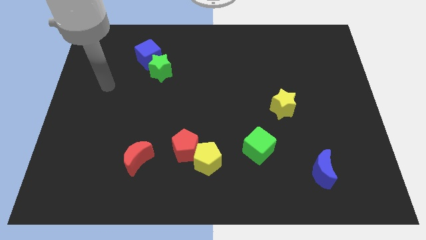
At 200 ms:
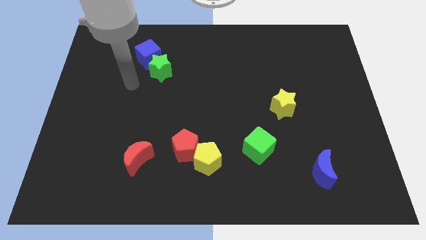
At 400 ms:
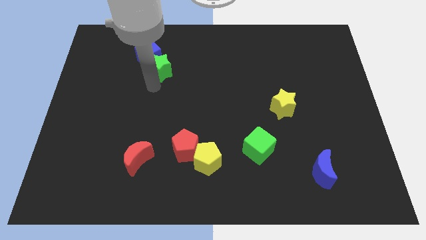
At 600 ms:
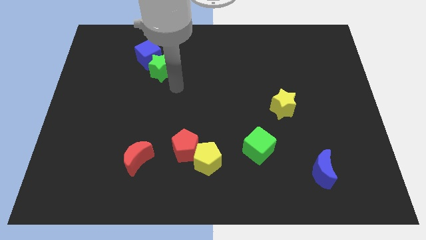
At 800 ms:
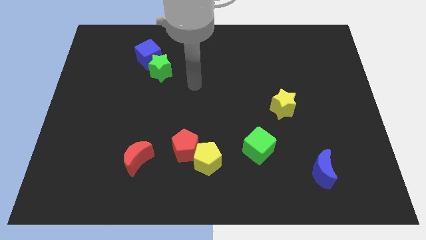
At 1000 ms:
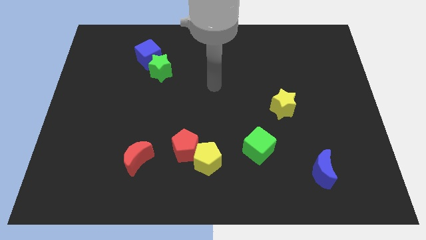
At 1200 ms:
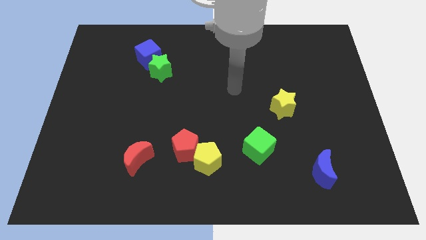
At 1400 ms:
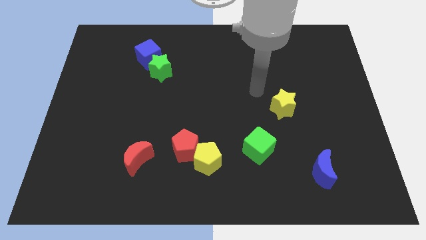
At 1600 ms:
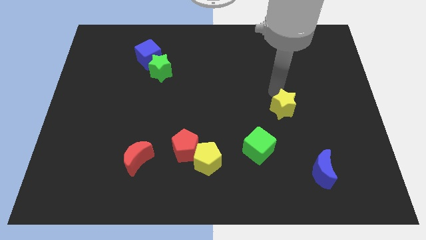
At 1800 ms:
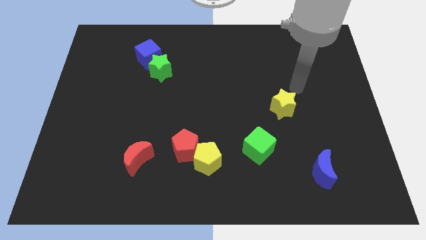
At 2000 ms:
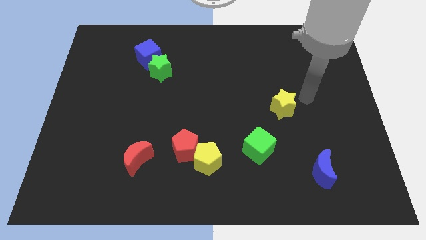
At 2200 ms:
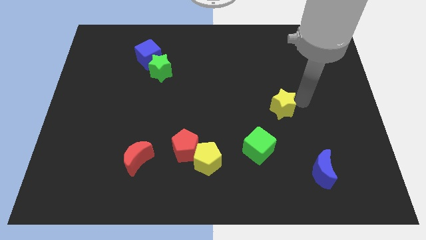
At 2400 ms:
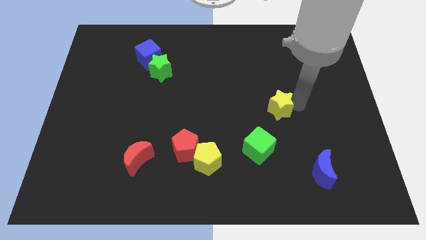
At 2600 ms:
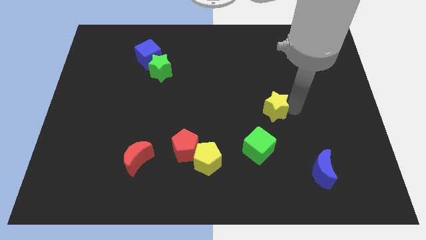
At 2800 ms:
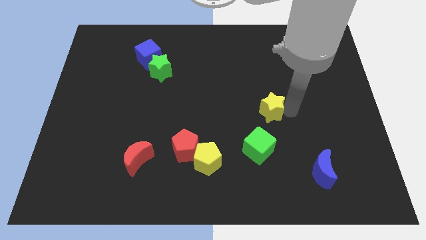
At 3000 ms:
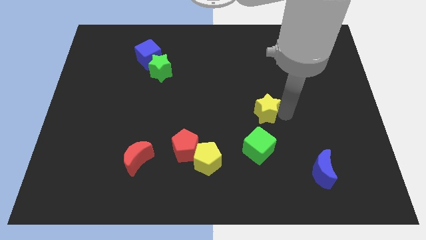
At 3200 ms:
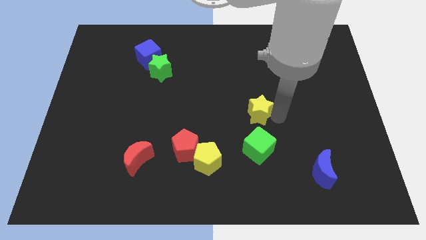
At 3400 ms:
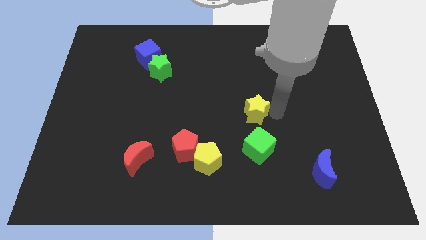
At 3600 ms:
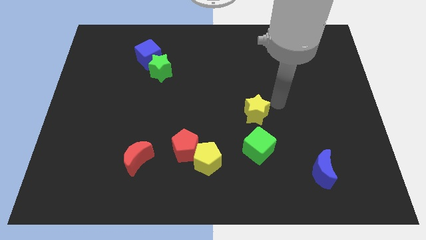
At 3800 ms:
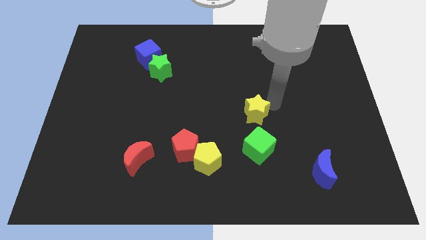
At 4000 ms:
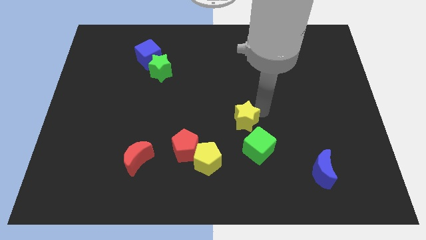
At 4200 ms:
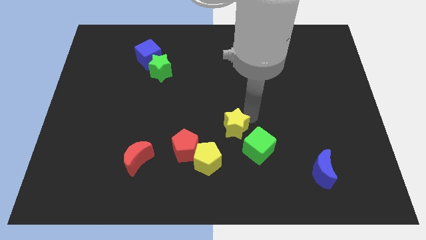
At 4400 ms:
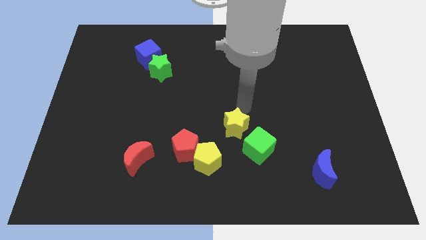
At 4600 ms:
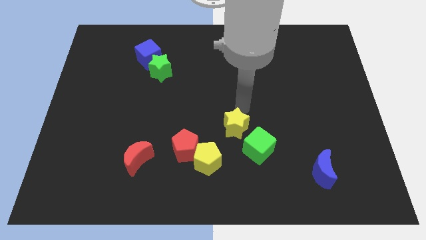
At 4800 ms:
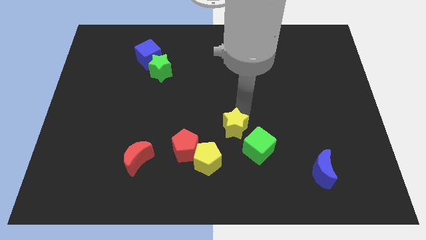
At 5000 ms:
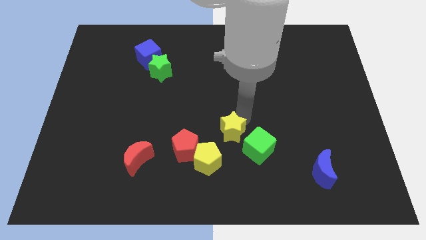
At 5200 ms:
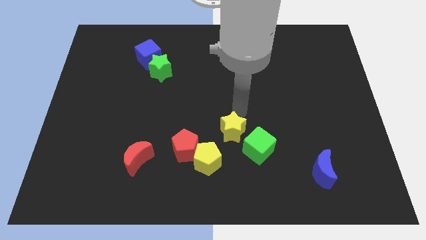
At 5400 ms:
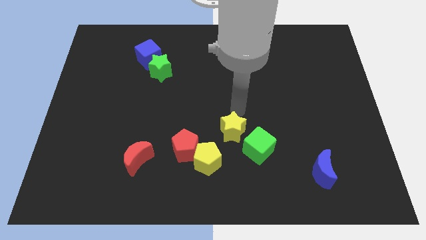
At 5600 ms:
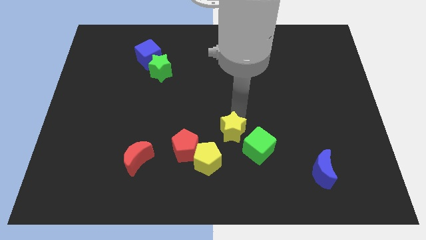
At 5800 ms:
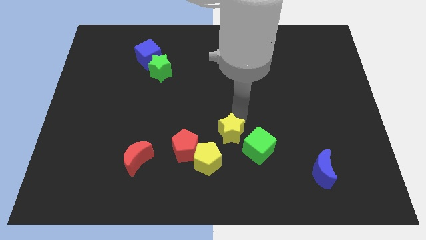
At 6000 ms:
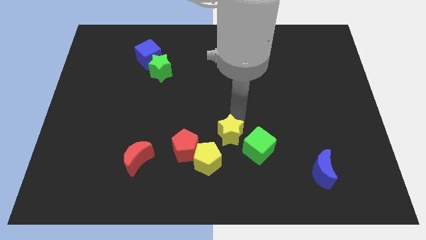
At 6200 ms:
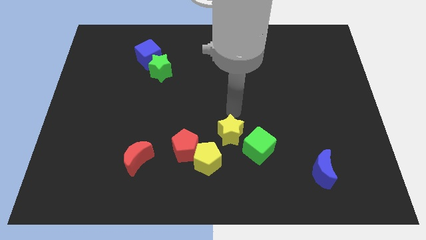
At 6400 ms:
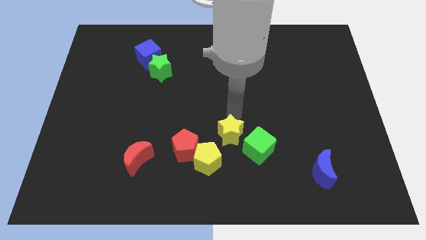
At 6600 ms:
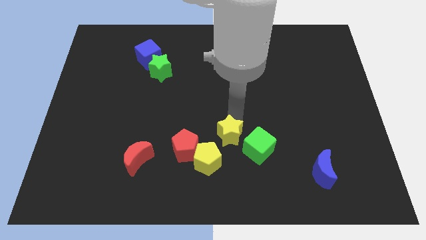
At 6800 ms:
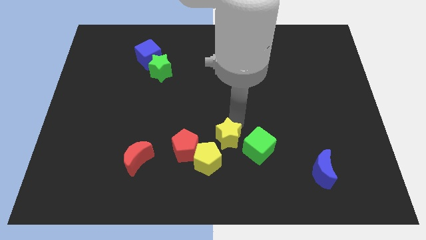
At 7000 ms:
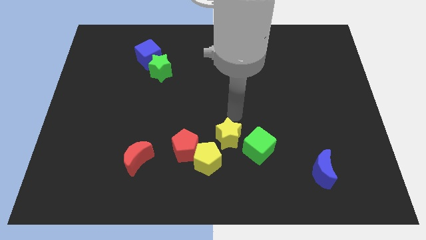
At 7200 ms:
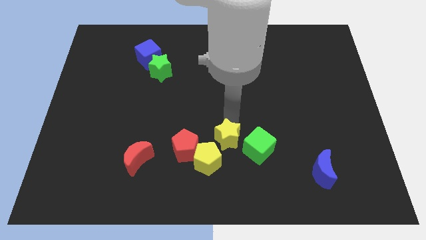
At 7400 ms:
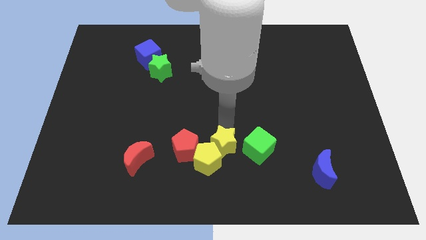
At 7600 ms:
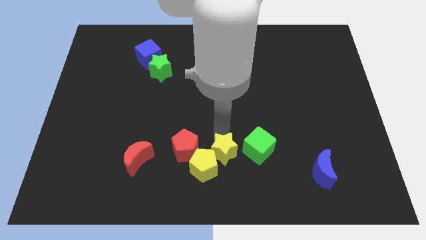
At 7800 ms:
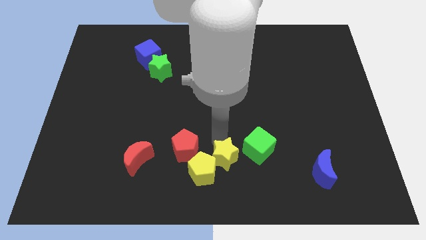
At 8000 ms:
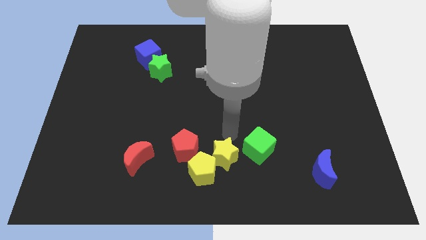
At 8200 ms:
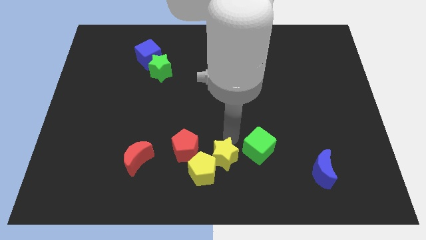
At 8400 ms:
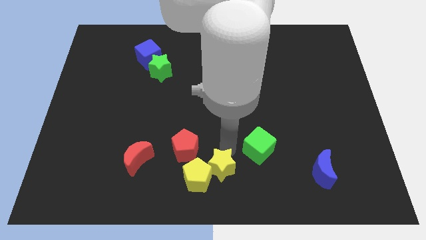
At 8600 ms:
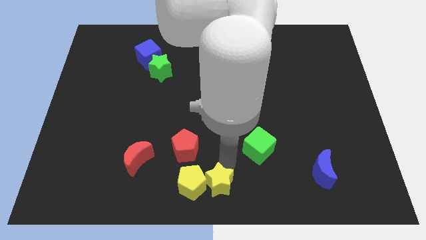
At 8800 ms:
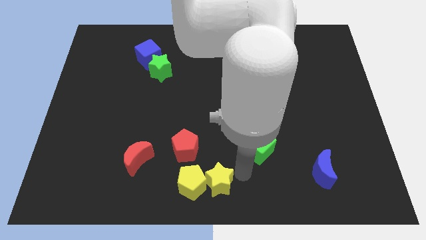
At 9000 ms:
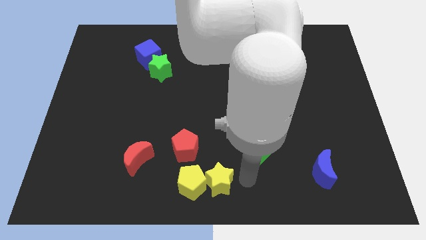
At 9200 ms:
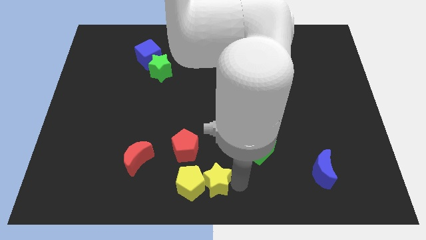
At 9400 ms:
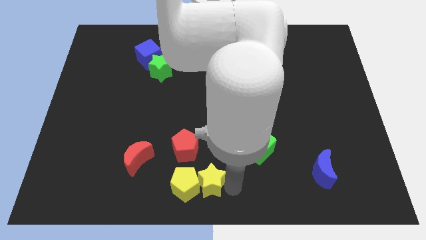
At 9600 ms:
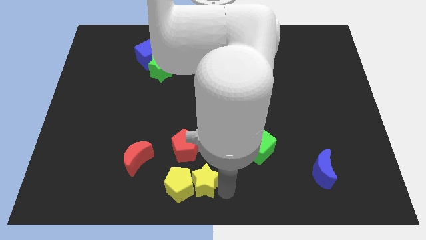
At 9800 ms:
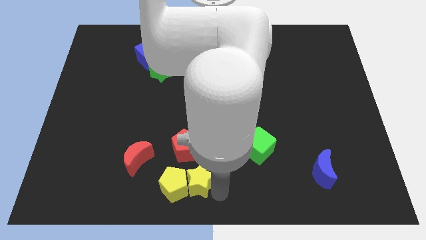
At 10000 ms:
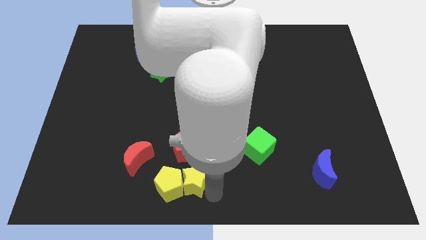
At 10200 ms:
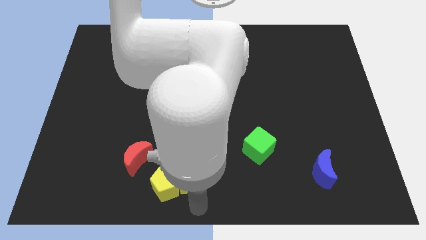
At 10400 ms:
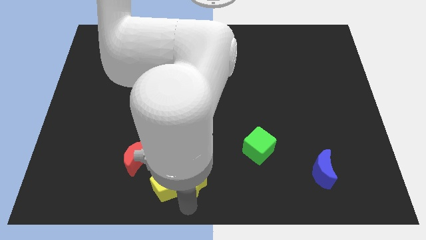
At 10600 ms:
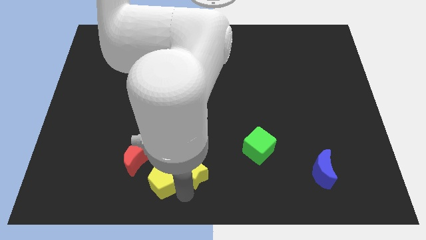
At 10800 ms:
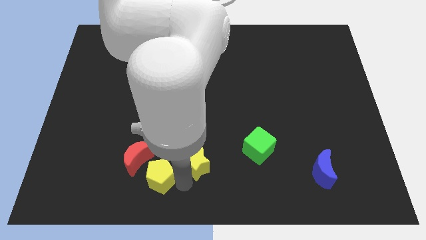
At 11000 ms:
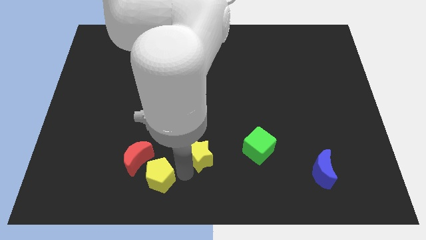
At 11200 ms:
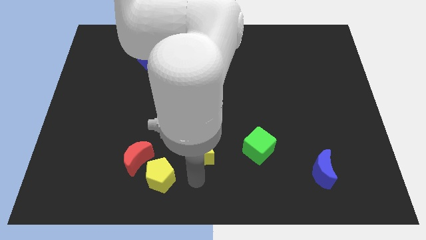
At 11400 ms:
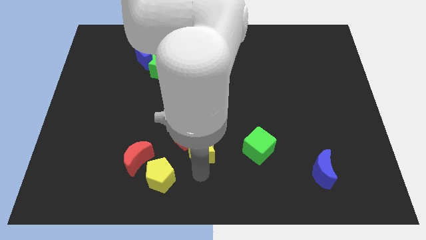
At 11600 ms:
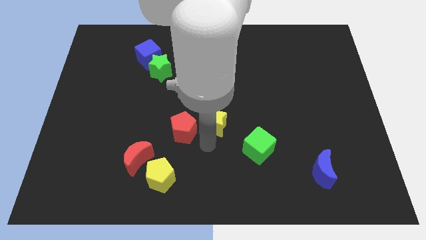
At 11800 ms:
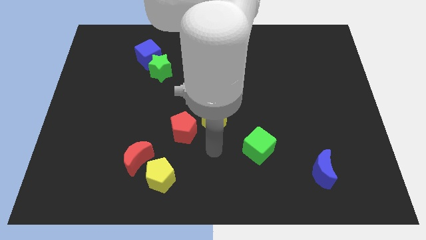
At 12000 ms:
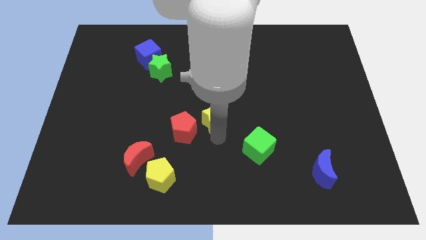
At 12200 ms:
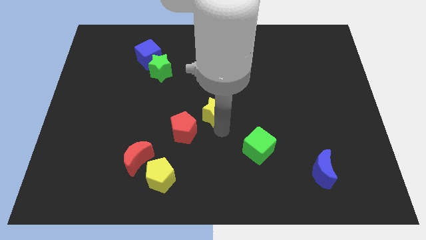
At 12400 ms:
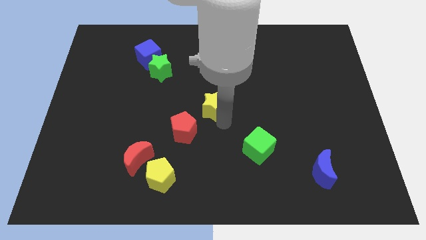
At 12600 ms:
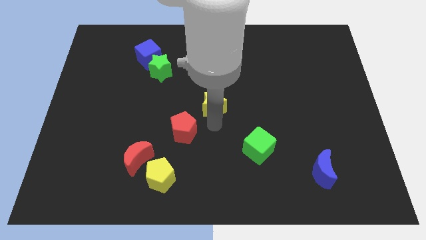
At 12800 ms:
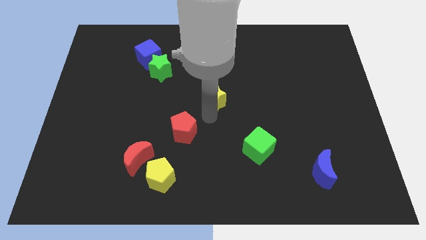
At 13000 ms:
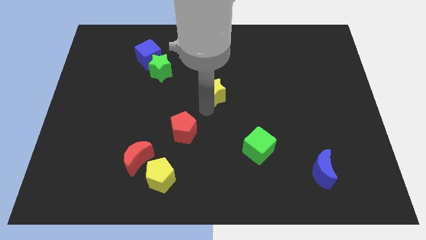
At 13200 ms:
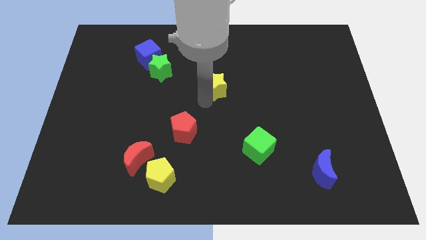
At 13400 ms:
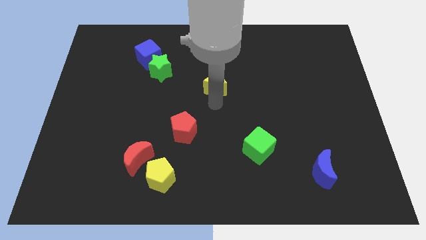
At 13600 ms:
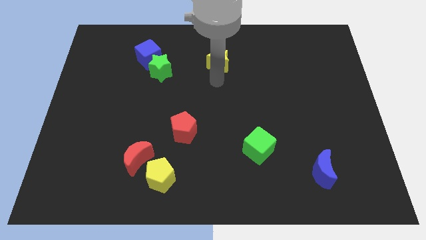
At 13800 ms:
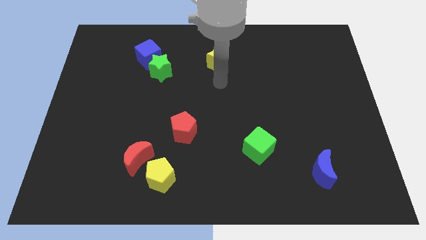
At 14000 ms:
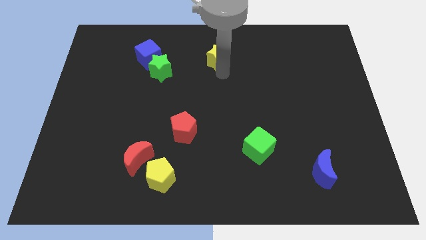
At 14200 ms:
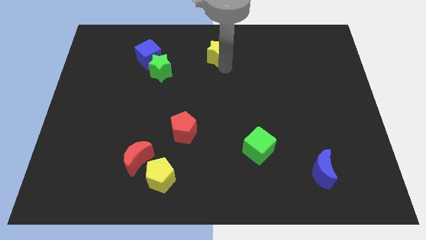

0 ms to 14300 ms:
push the yellow star to the top

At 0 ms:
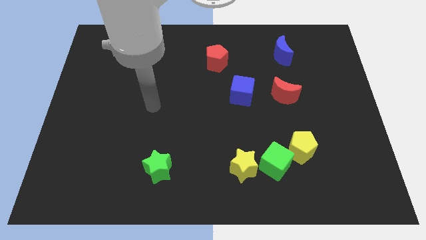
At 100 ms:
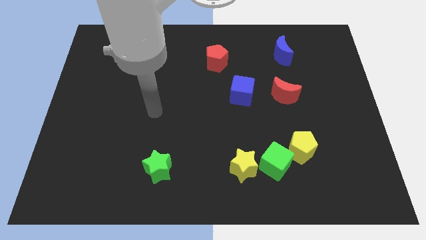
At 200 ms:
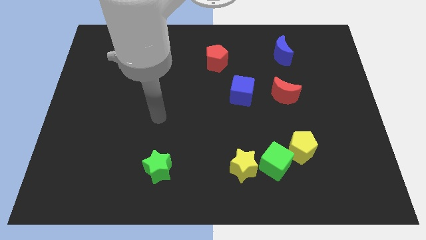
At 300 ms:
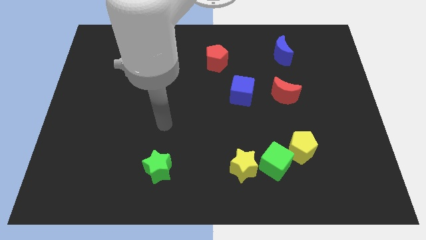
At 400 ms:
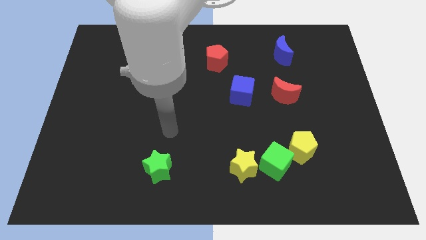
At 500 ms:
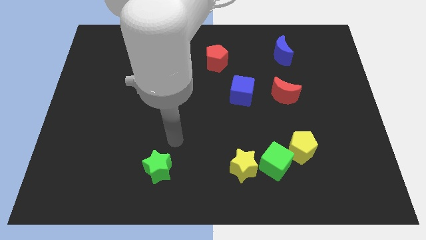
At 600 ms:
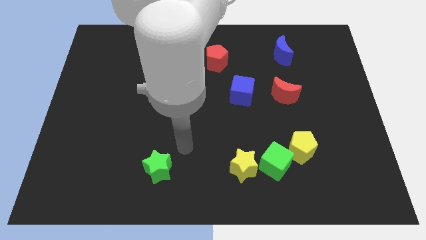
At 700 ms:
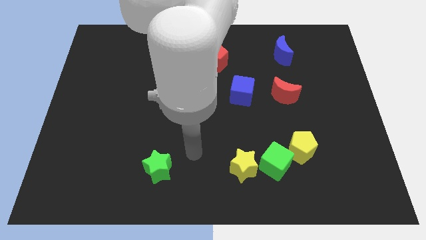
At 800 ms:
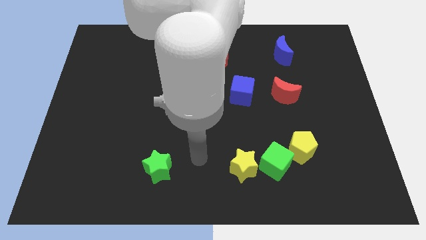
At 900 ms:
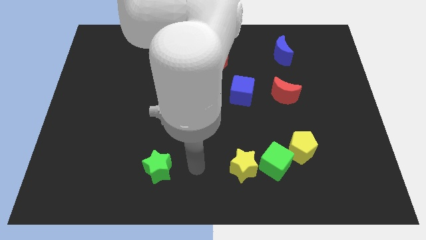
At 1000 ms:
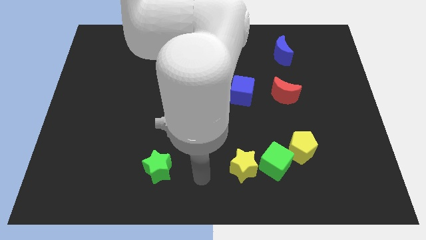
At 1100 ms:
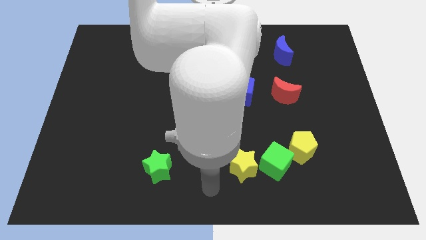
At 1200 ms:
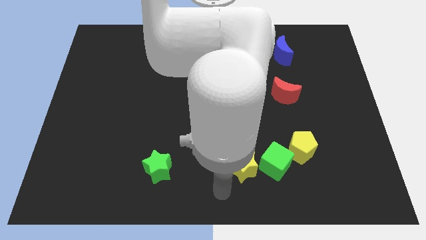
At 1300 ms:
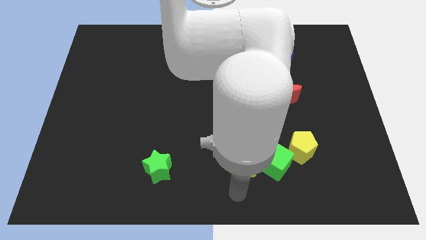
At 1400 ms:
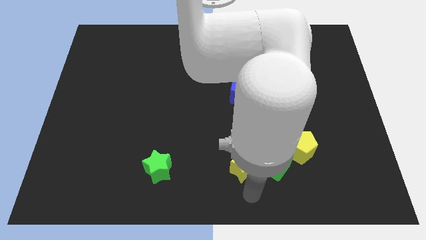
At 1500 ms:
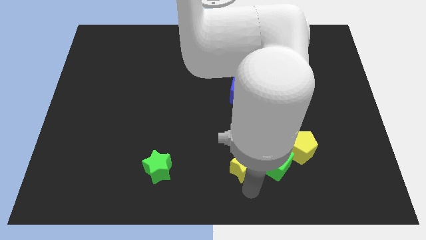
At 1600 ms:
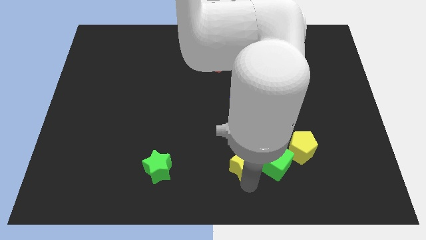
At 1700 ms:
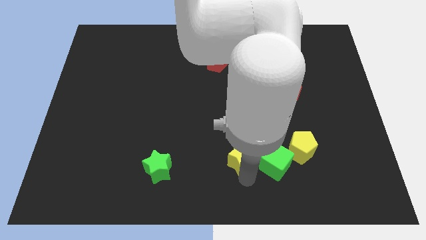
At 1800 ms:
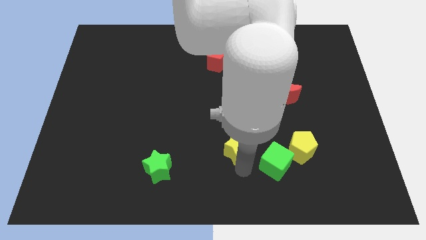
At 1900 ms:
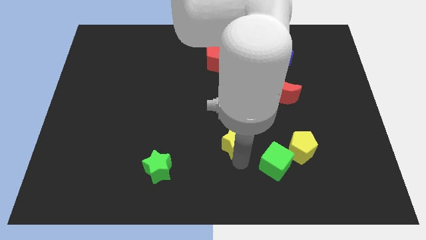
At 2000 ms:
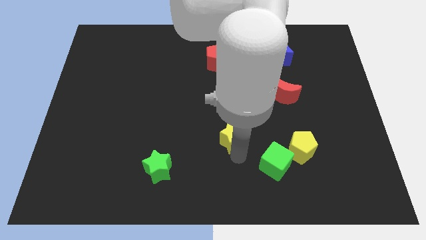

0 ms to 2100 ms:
push the yellow star to the middle
